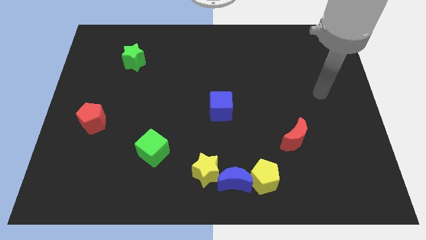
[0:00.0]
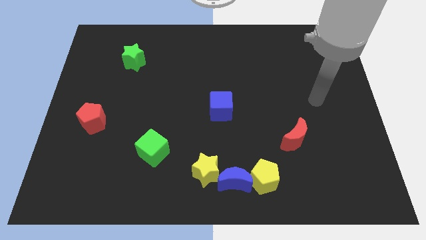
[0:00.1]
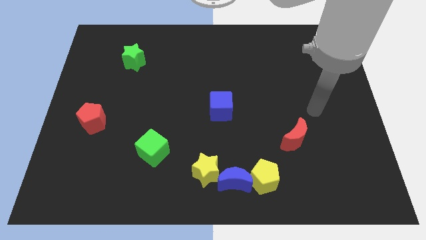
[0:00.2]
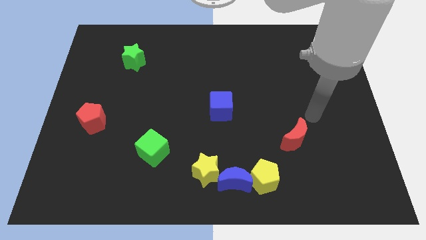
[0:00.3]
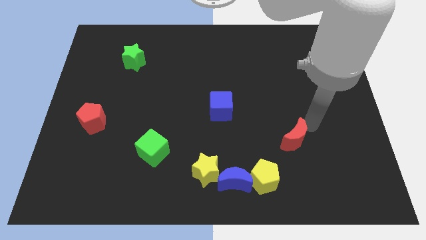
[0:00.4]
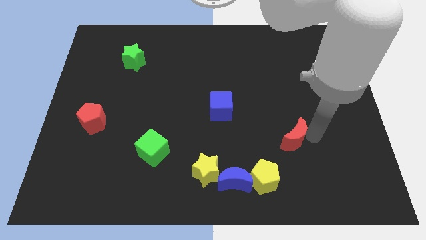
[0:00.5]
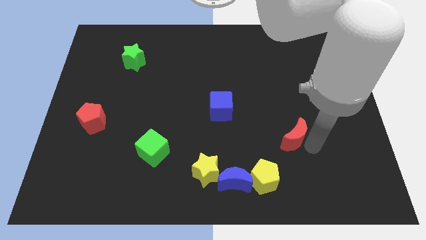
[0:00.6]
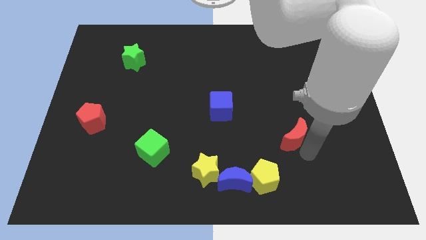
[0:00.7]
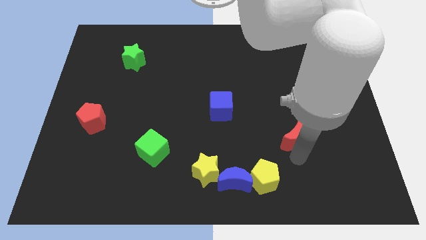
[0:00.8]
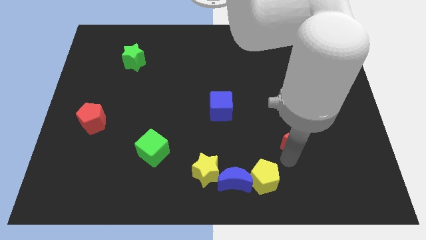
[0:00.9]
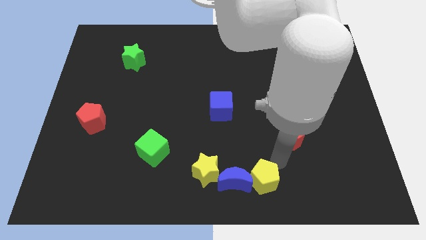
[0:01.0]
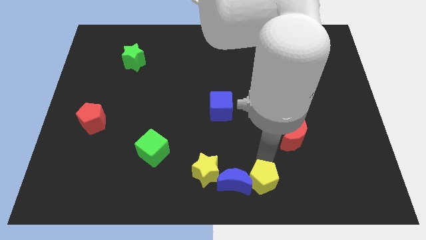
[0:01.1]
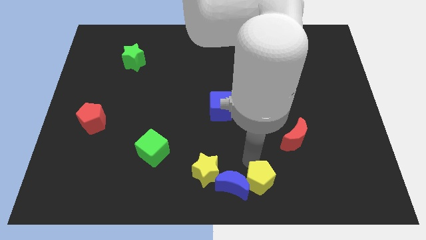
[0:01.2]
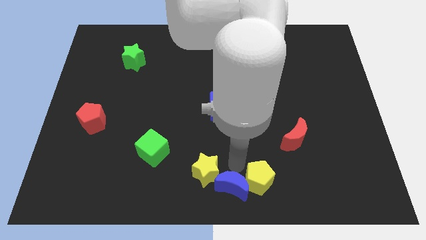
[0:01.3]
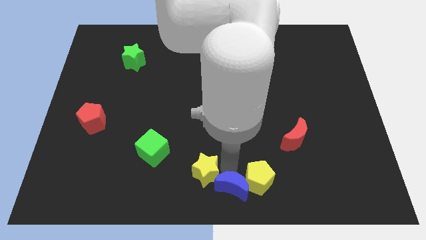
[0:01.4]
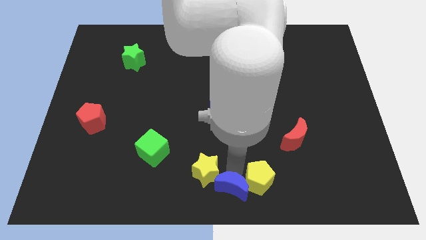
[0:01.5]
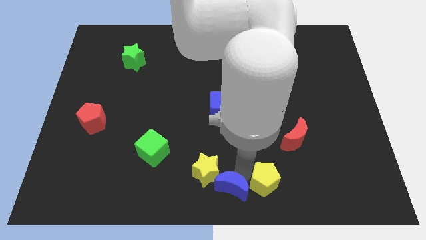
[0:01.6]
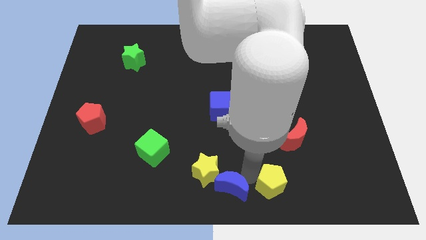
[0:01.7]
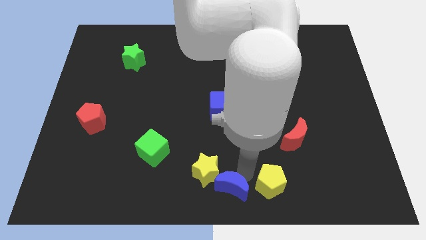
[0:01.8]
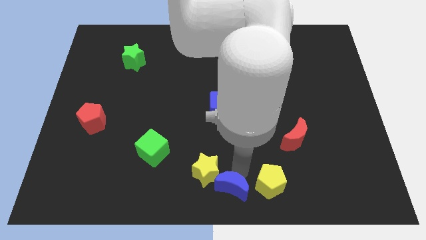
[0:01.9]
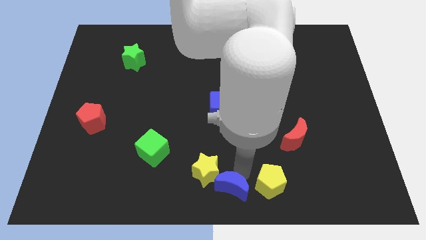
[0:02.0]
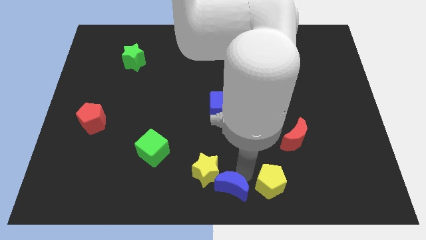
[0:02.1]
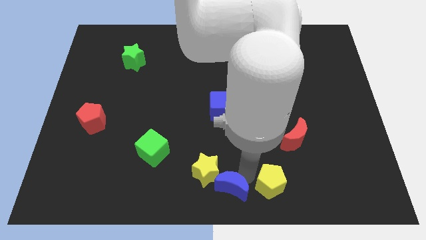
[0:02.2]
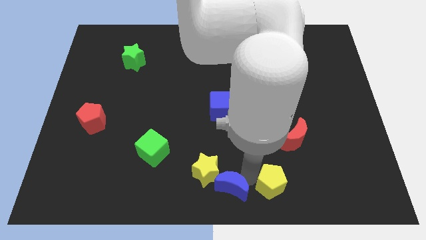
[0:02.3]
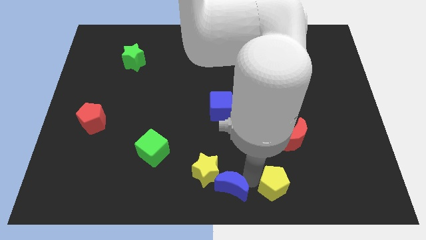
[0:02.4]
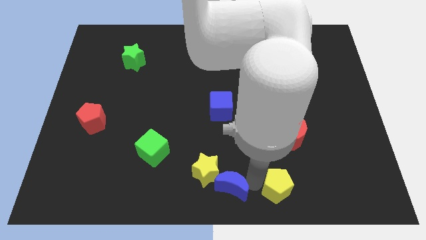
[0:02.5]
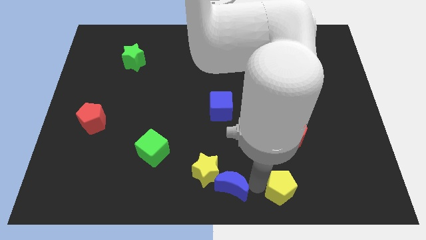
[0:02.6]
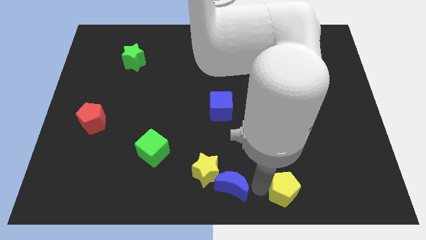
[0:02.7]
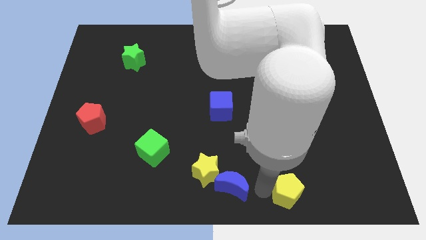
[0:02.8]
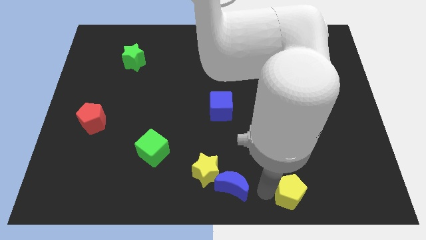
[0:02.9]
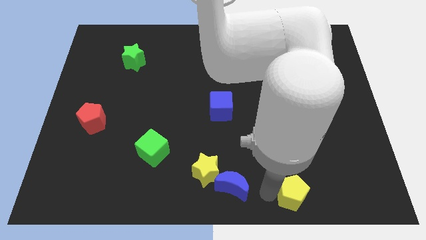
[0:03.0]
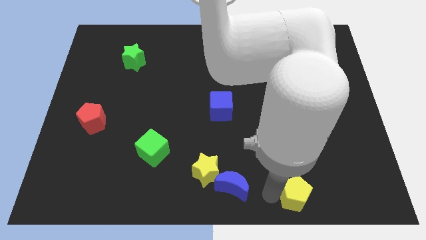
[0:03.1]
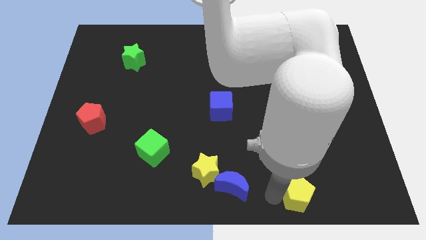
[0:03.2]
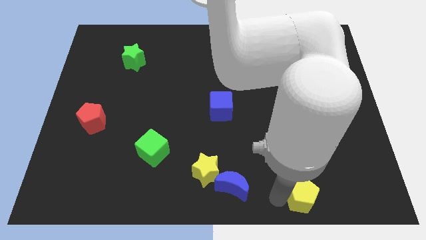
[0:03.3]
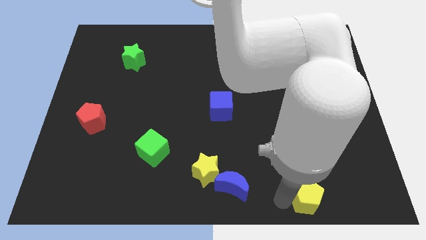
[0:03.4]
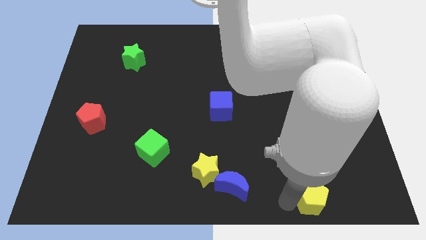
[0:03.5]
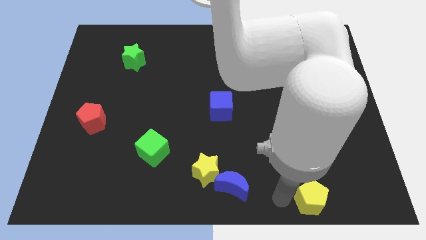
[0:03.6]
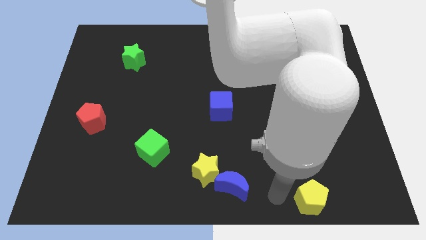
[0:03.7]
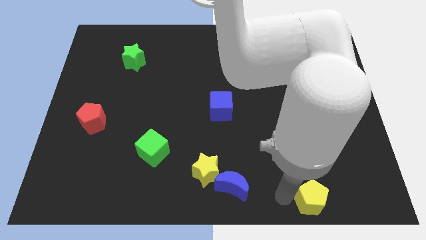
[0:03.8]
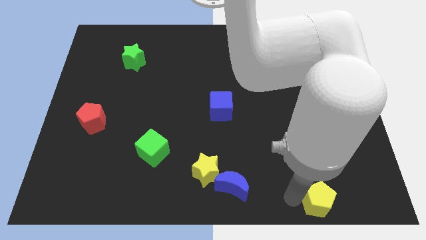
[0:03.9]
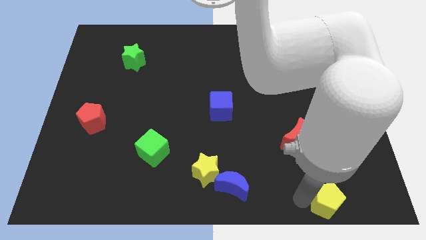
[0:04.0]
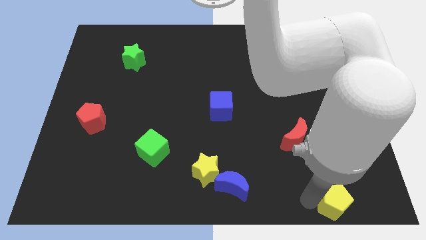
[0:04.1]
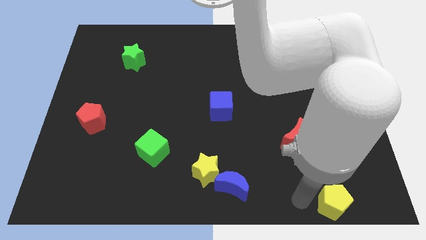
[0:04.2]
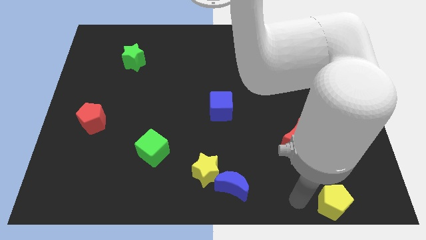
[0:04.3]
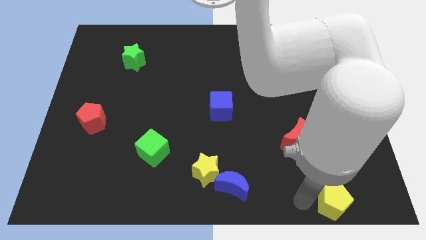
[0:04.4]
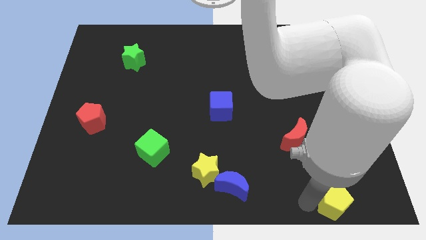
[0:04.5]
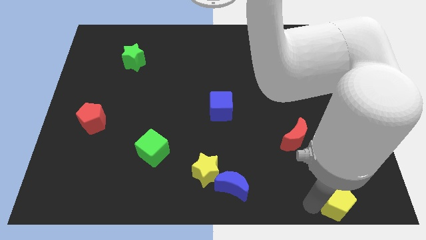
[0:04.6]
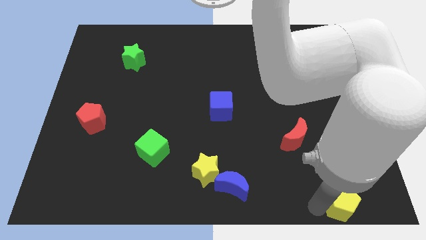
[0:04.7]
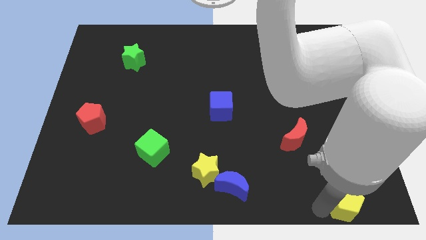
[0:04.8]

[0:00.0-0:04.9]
move the yellow pentagon to the bottom right of the board

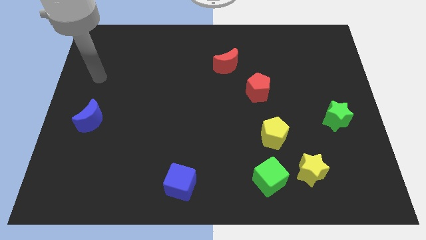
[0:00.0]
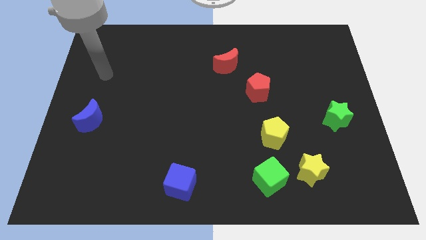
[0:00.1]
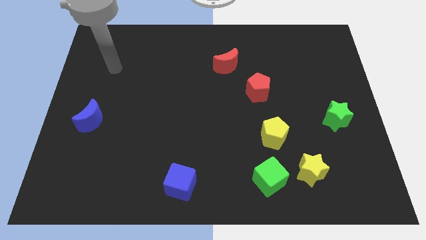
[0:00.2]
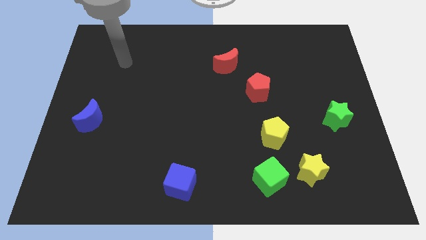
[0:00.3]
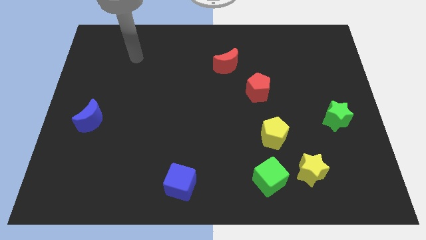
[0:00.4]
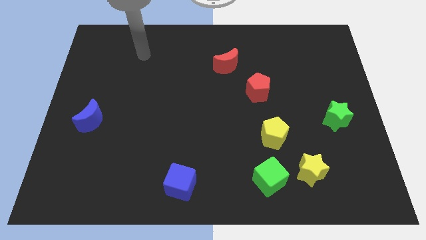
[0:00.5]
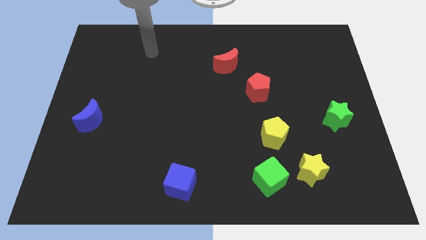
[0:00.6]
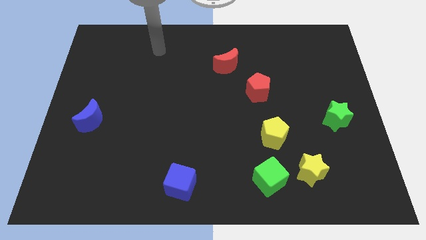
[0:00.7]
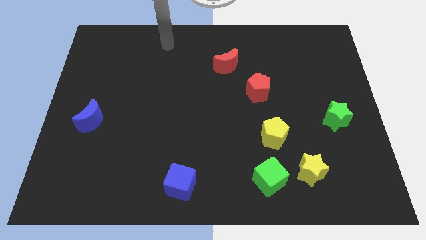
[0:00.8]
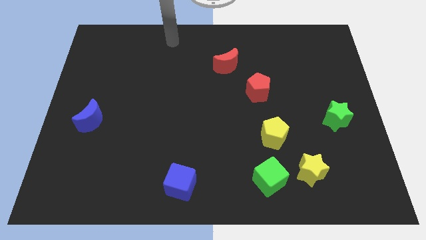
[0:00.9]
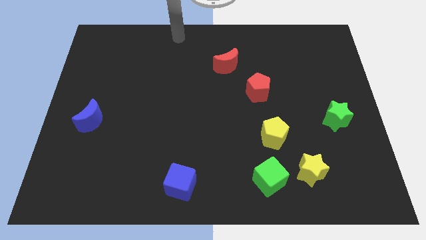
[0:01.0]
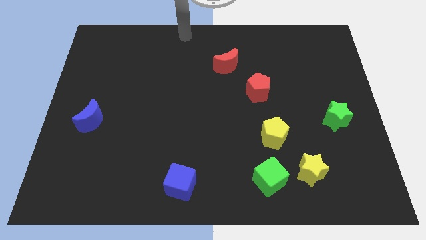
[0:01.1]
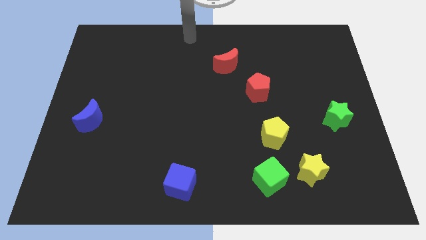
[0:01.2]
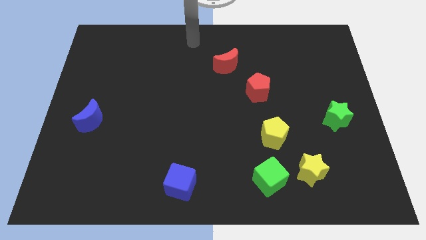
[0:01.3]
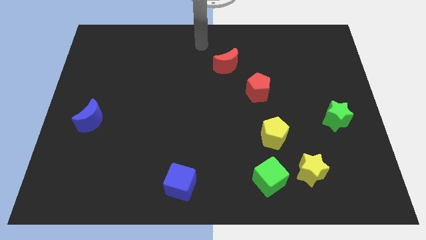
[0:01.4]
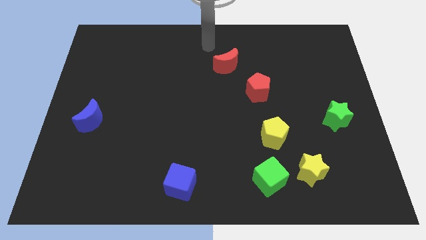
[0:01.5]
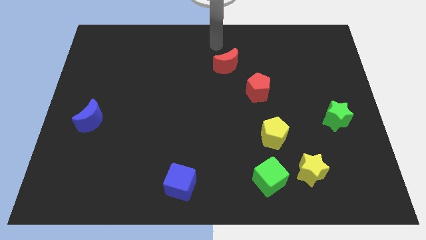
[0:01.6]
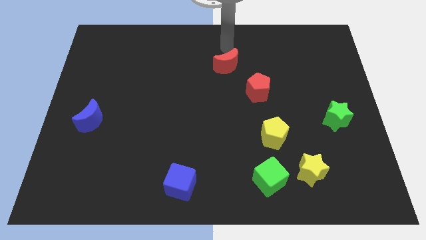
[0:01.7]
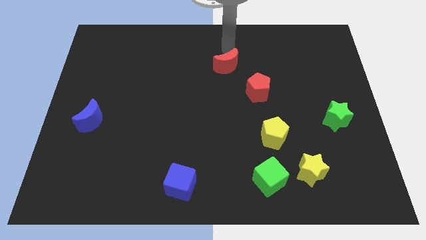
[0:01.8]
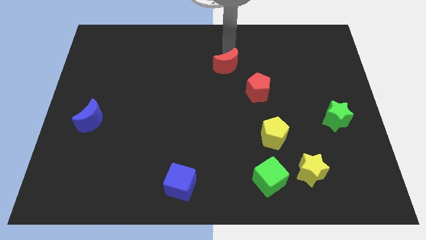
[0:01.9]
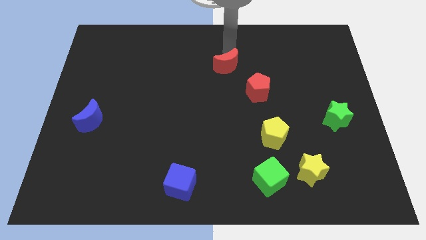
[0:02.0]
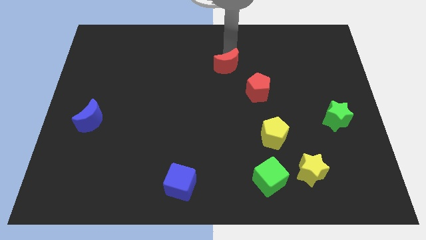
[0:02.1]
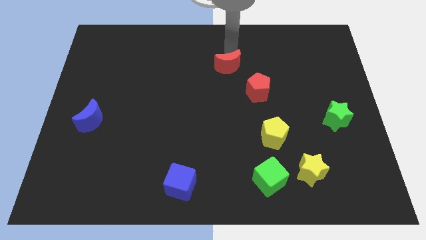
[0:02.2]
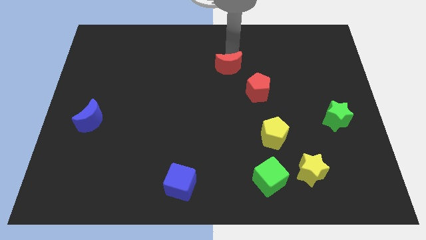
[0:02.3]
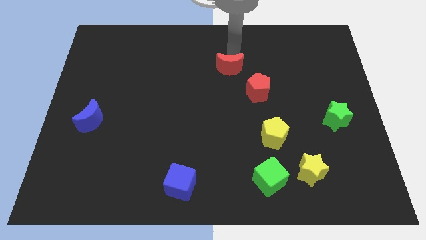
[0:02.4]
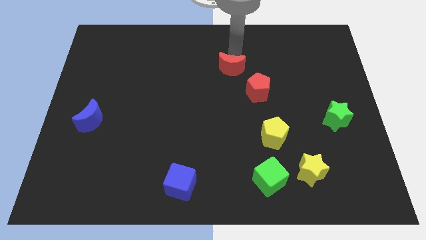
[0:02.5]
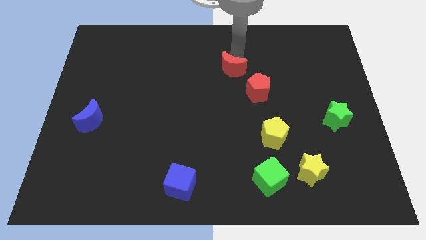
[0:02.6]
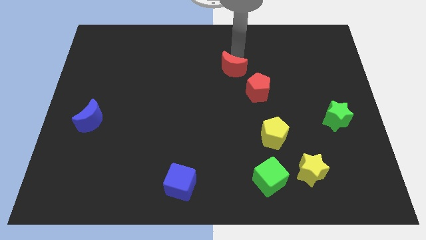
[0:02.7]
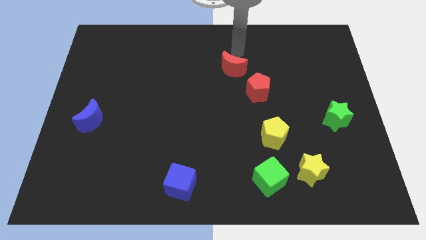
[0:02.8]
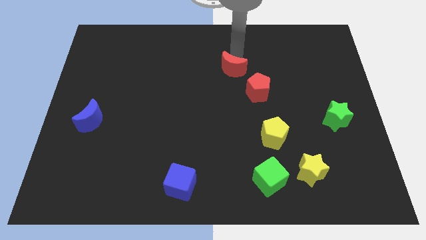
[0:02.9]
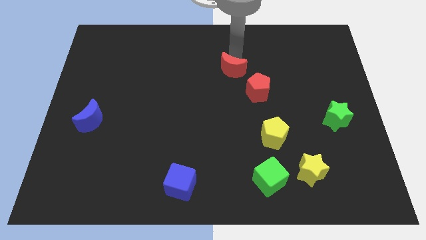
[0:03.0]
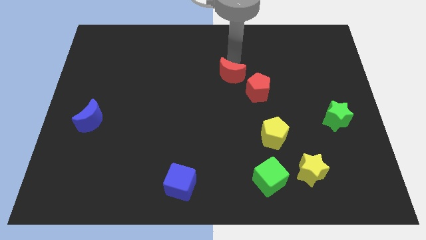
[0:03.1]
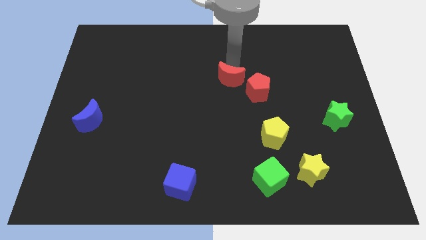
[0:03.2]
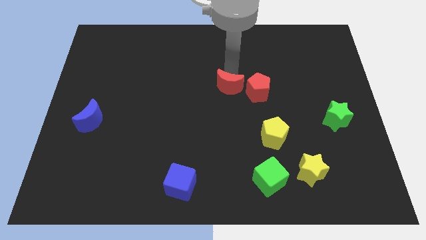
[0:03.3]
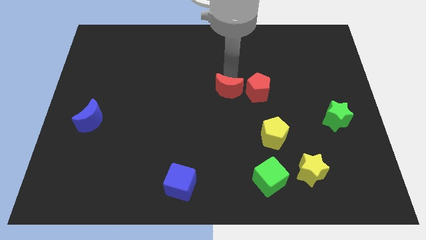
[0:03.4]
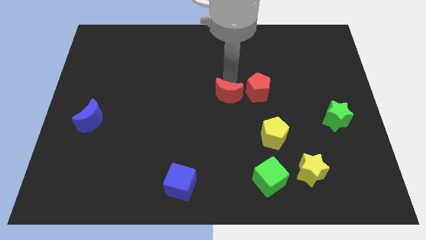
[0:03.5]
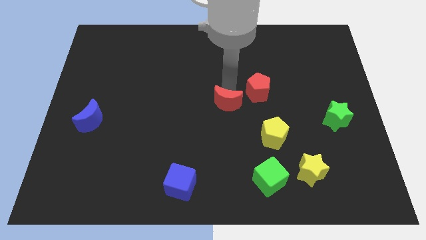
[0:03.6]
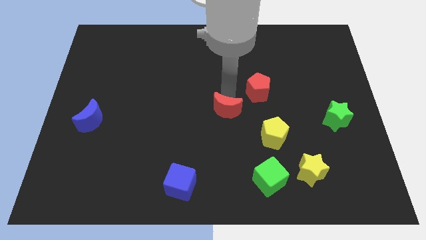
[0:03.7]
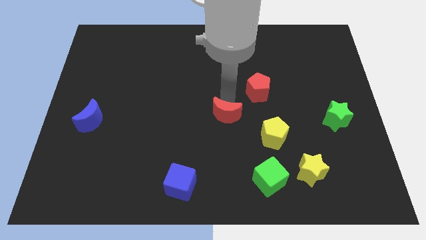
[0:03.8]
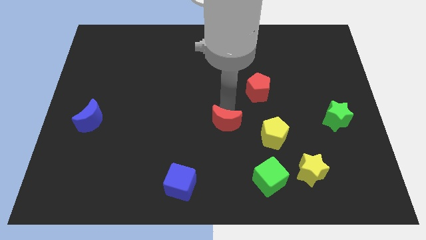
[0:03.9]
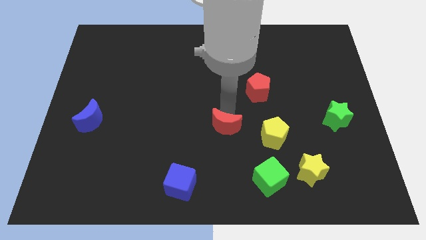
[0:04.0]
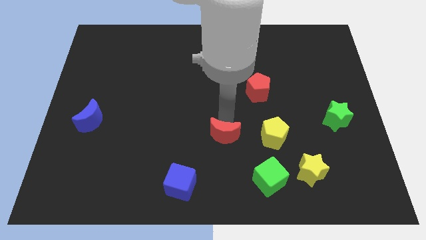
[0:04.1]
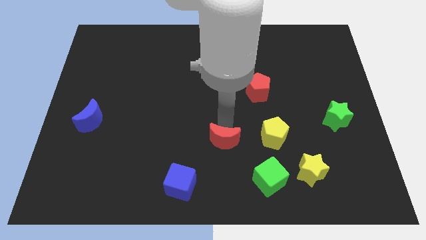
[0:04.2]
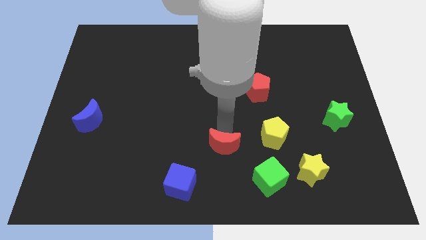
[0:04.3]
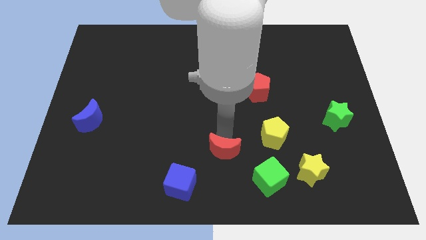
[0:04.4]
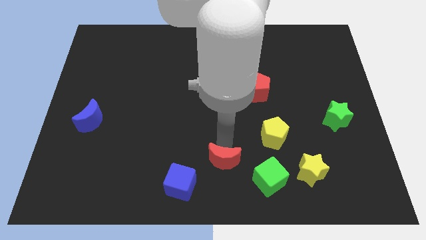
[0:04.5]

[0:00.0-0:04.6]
slide the red moon to the bottom side
